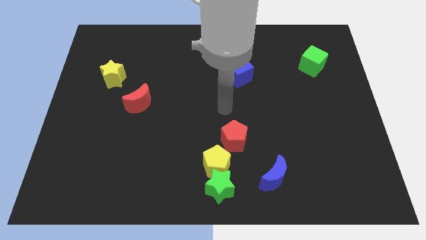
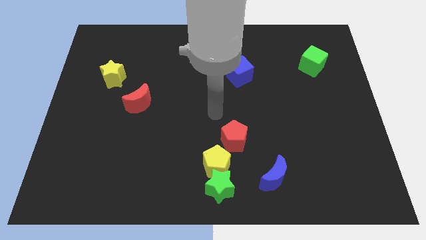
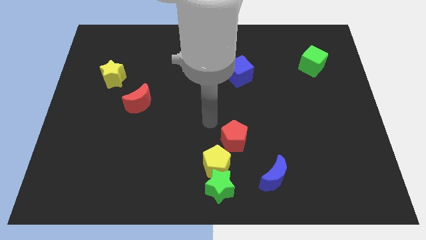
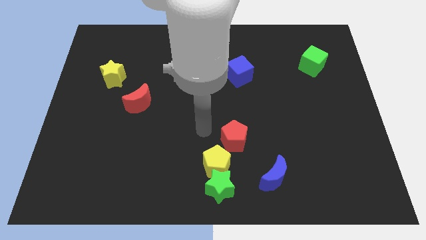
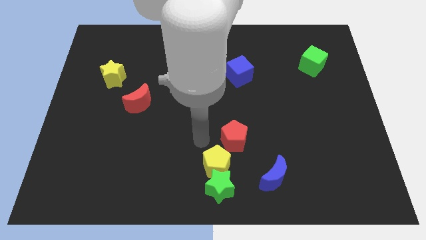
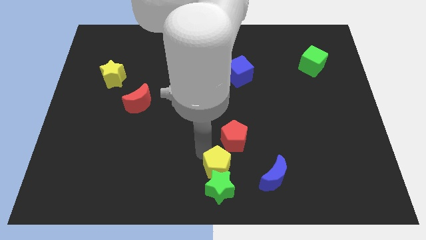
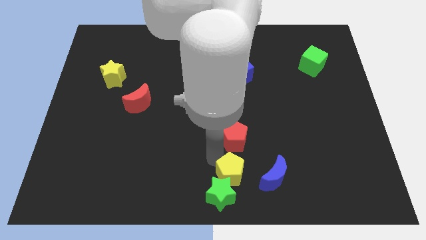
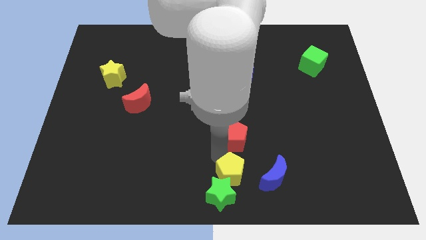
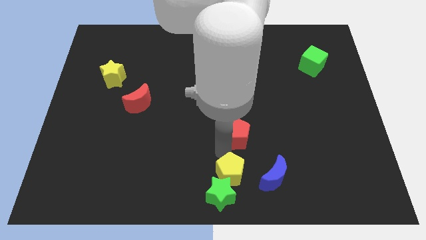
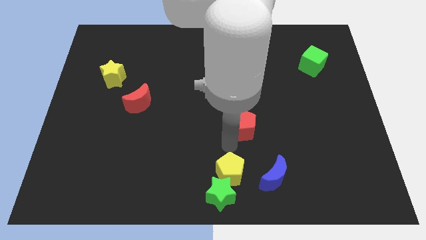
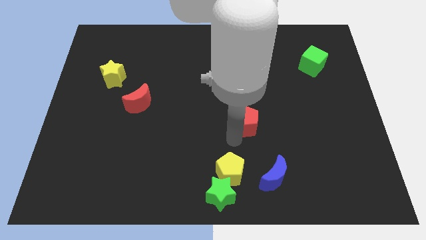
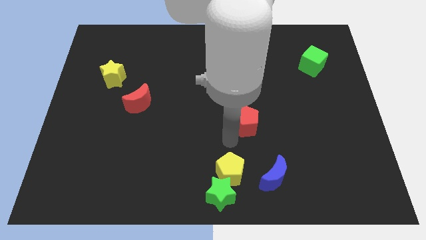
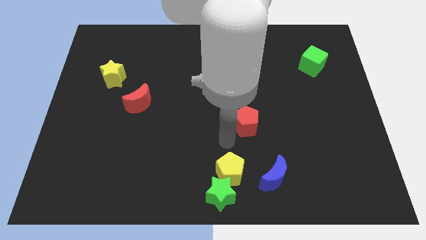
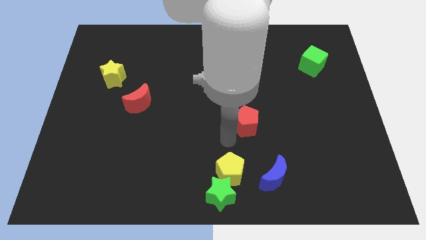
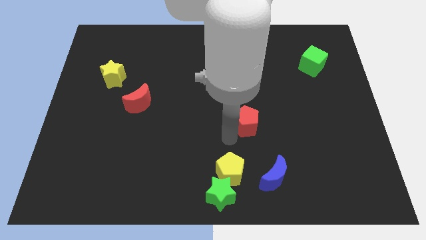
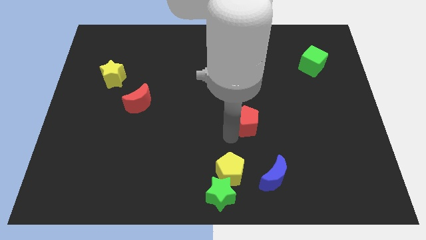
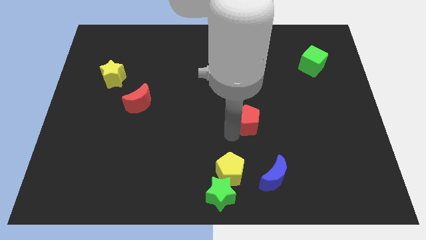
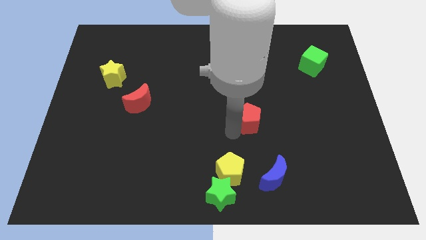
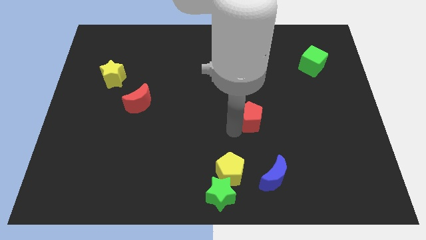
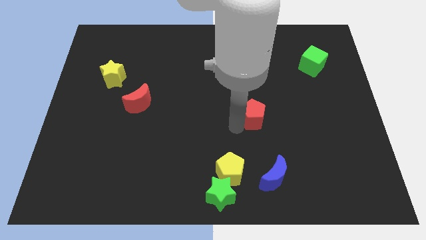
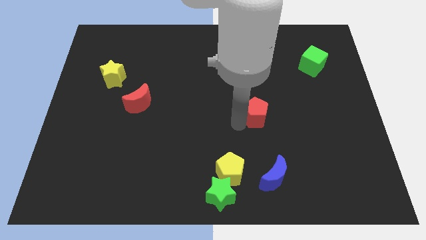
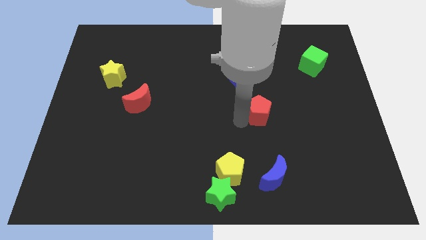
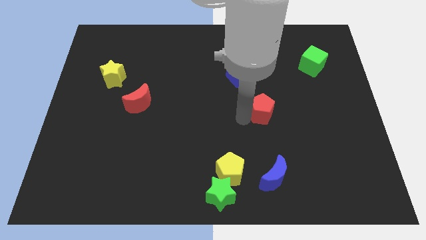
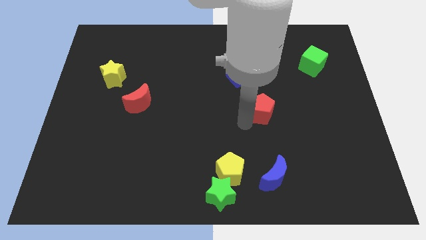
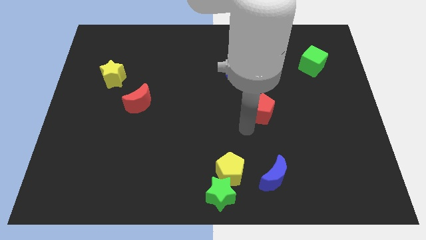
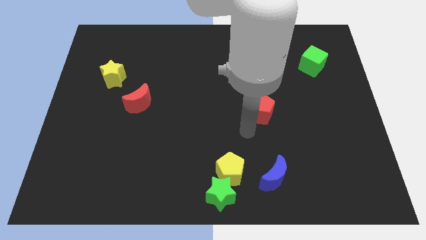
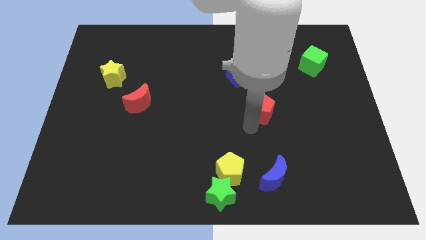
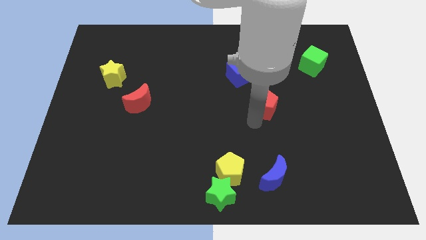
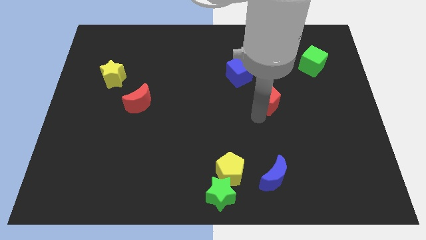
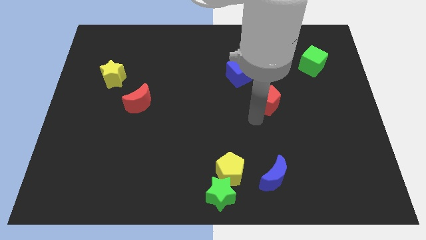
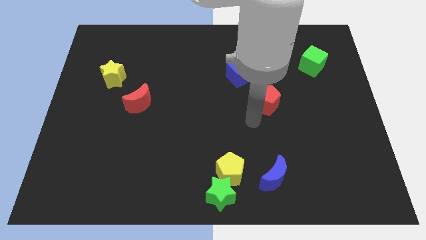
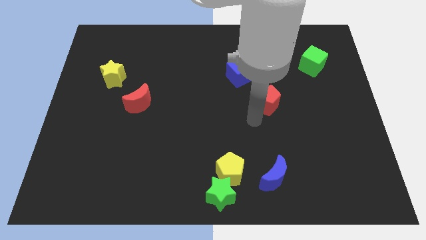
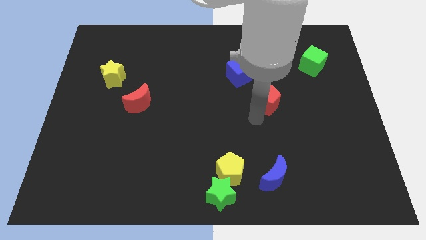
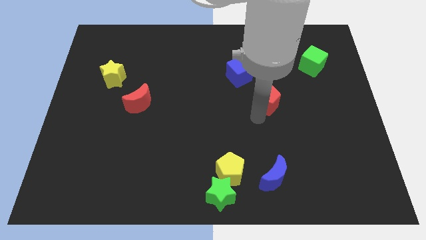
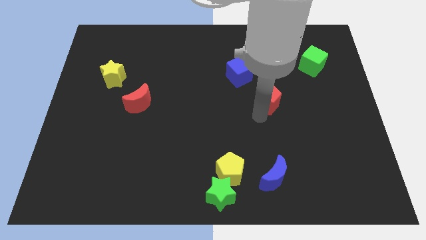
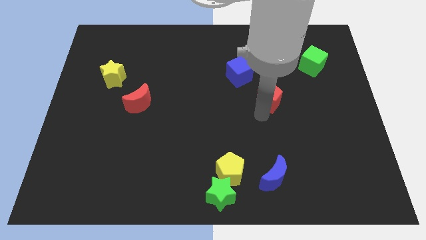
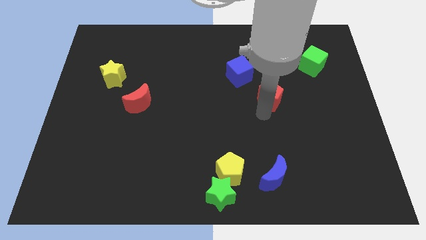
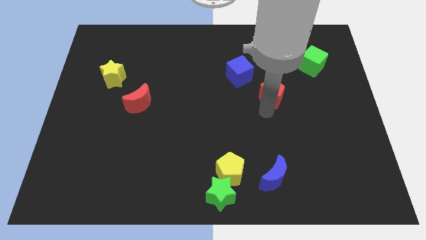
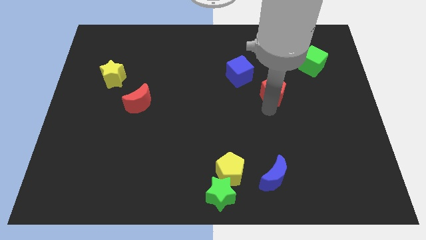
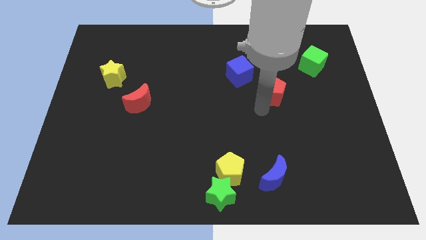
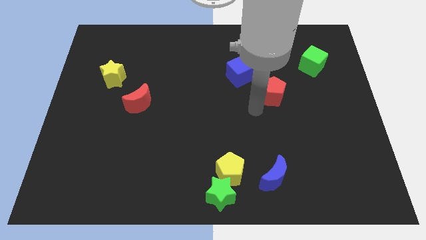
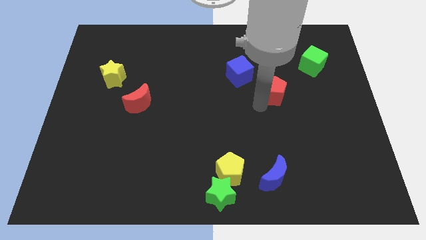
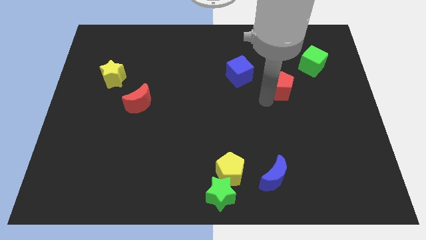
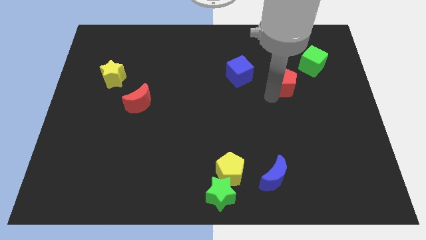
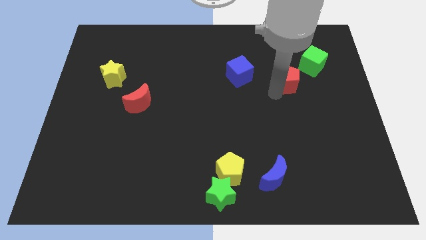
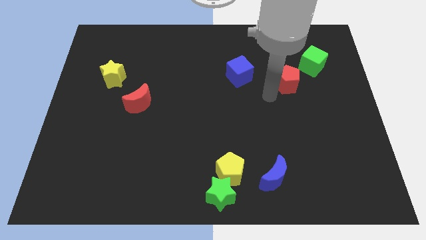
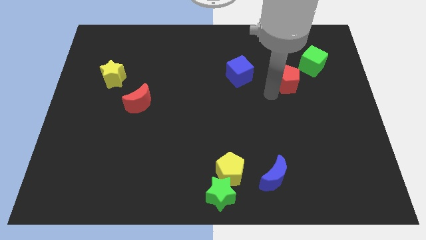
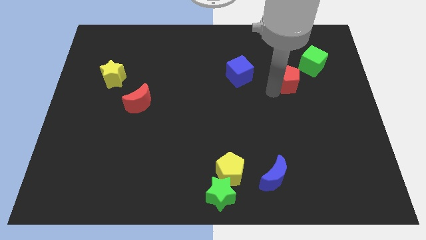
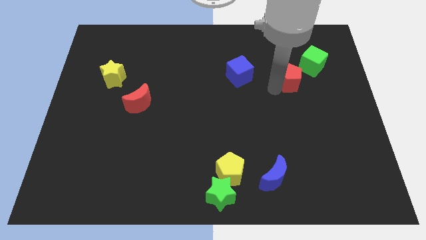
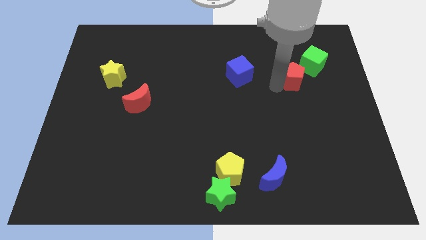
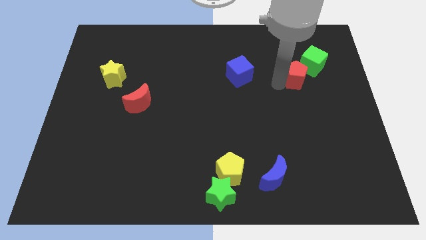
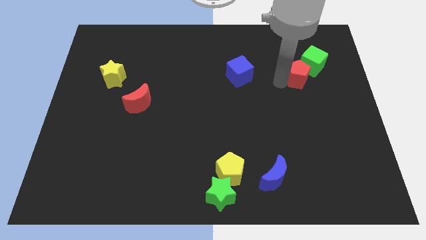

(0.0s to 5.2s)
move the red pentagon next to the green cube

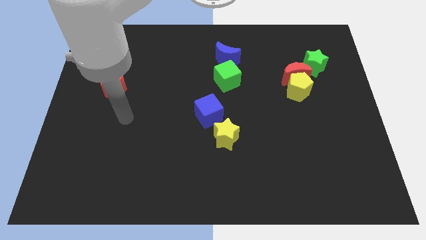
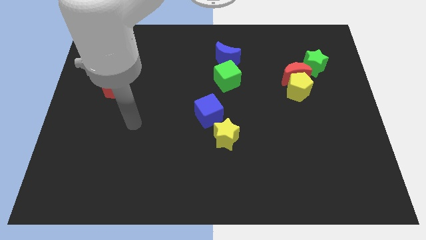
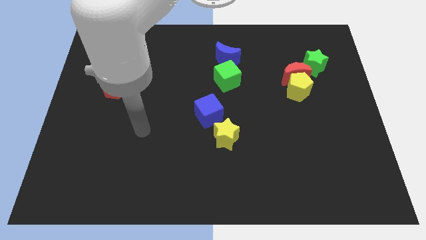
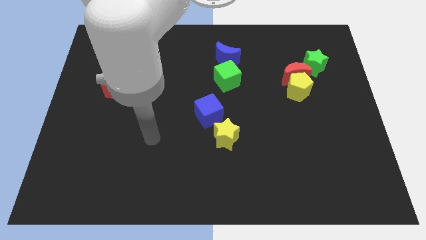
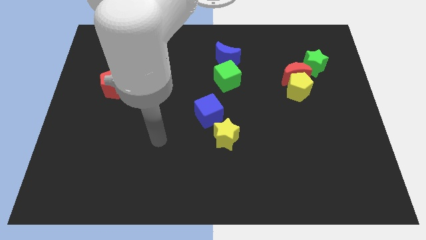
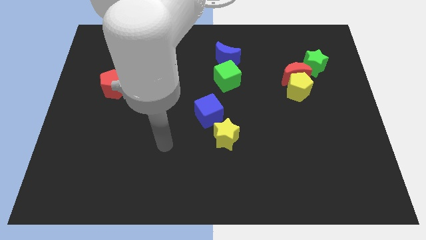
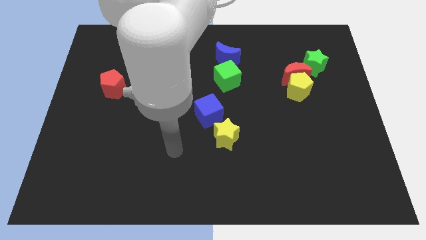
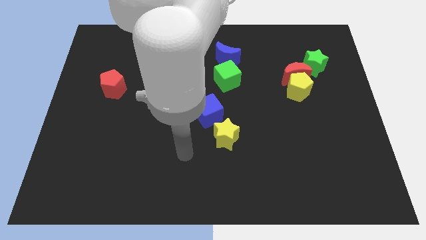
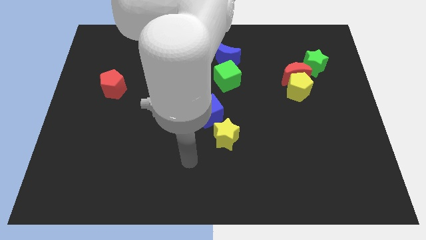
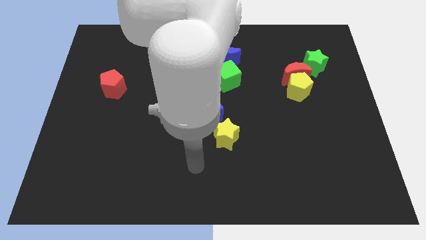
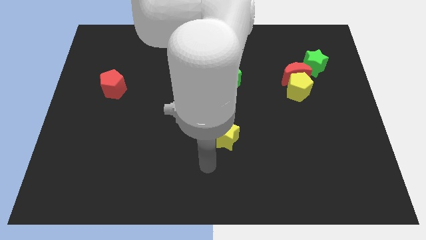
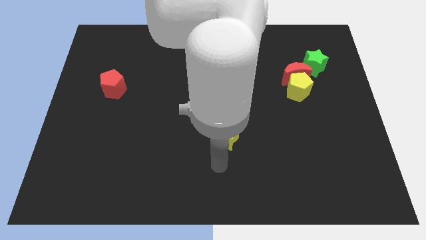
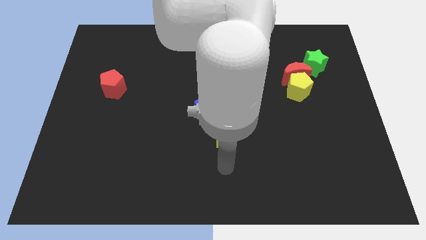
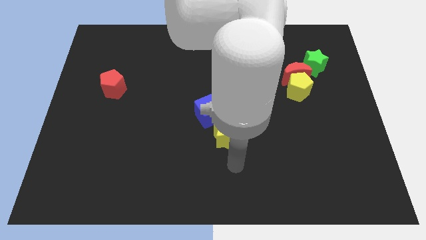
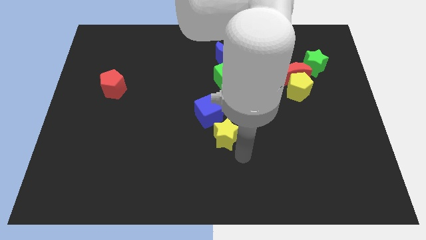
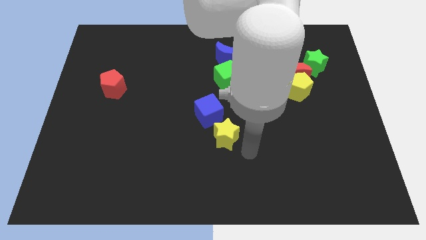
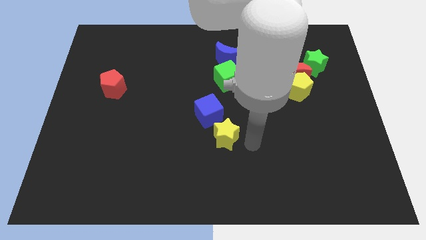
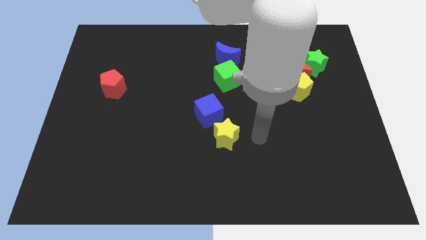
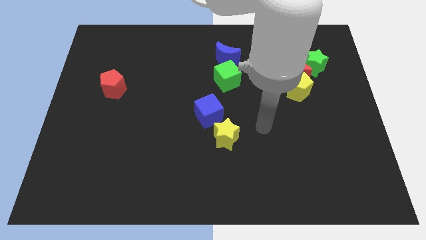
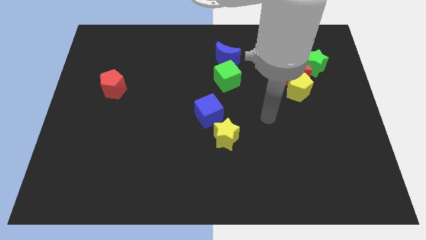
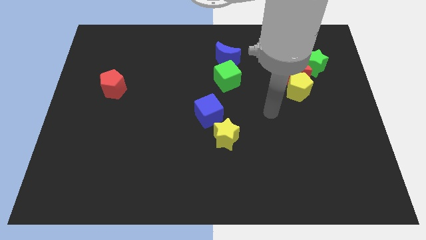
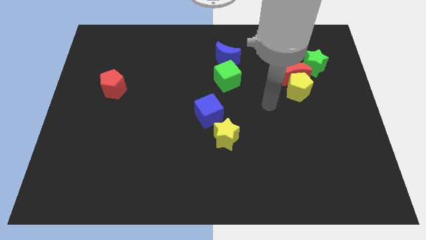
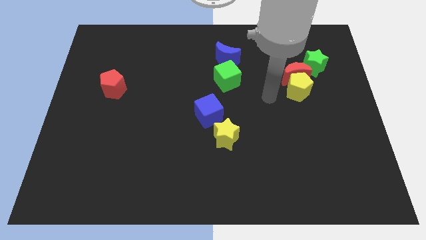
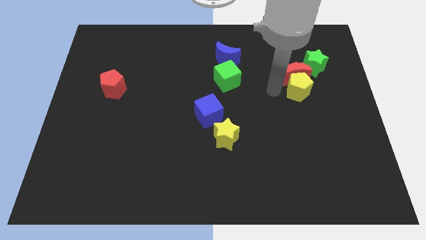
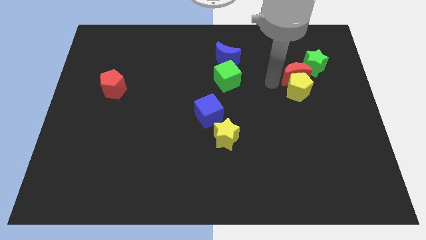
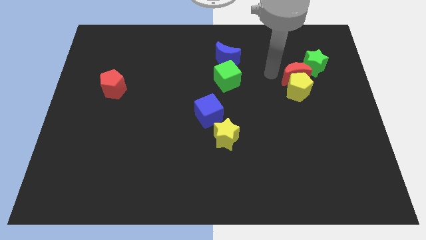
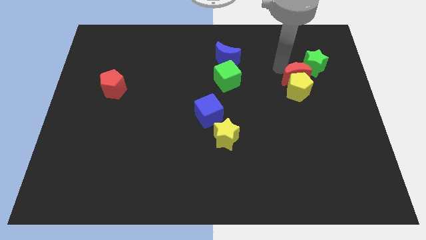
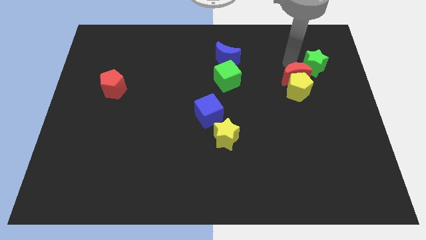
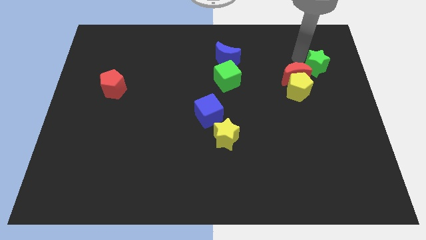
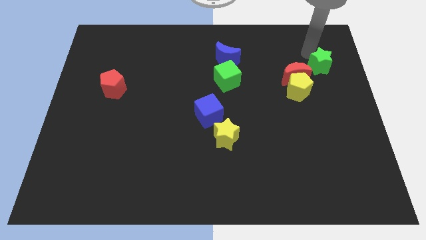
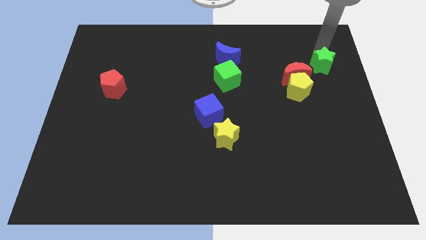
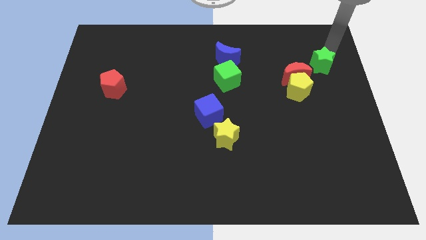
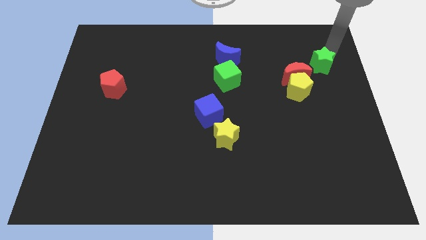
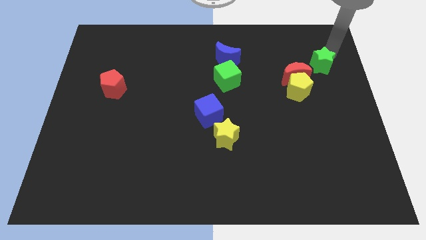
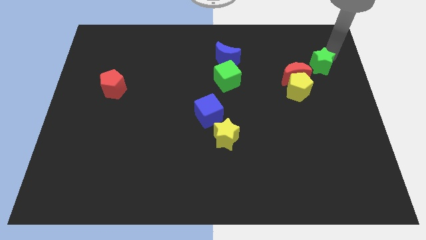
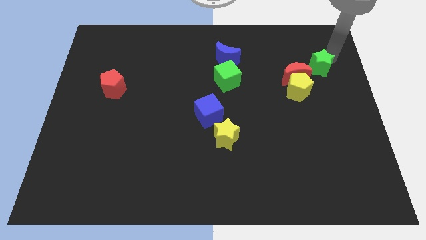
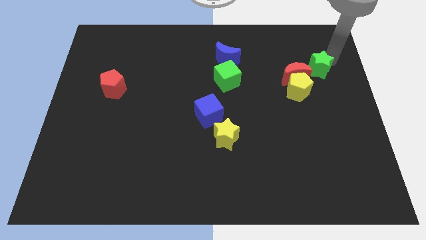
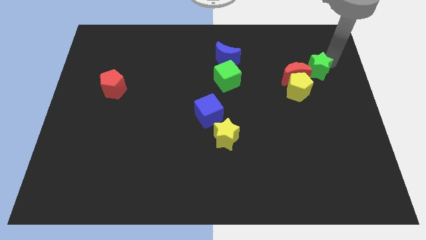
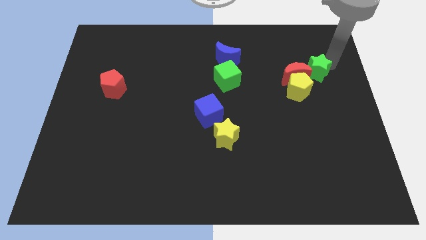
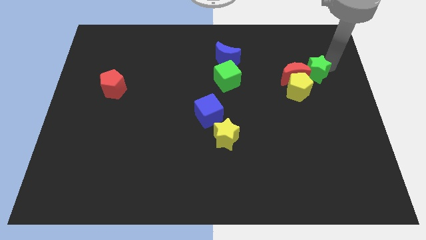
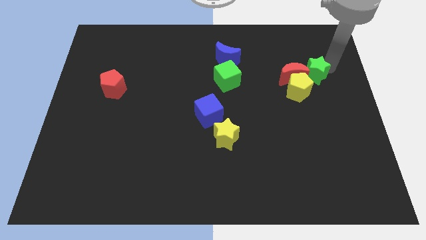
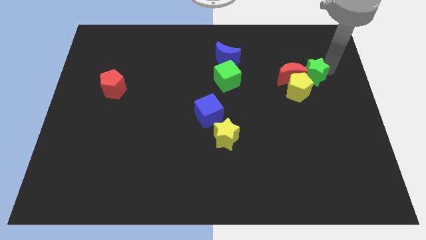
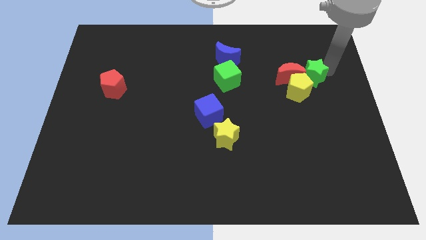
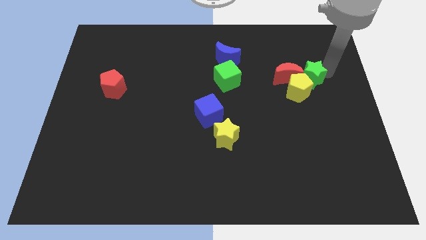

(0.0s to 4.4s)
put the green star to the yellow pentagon
